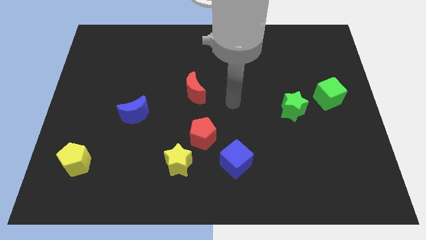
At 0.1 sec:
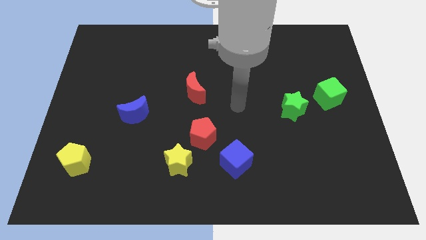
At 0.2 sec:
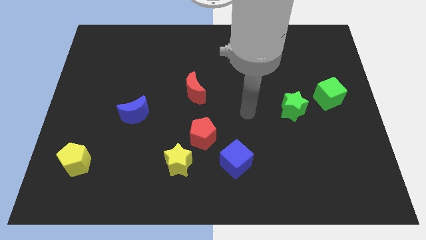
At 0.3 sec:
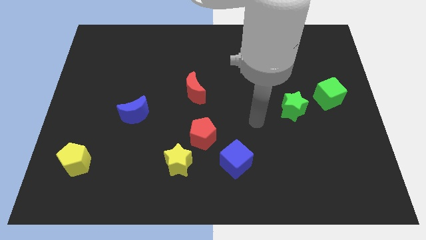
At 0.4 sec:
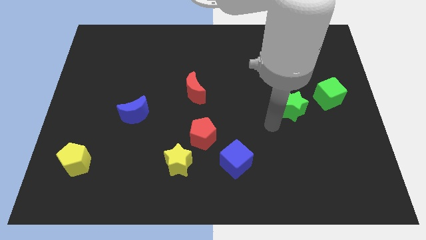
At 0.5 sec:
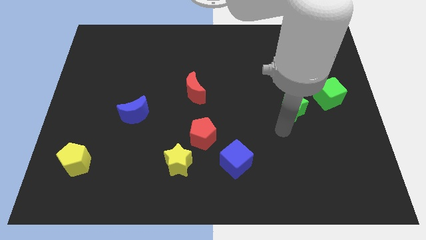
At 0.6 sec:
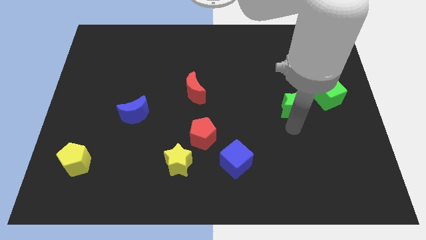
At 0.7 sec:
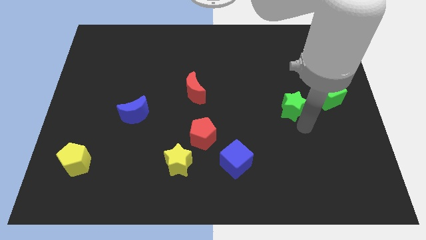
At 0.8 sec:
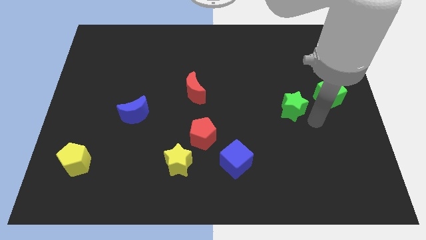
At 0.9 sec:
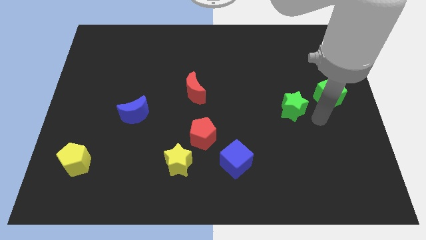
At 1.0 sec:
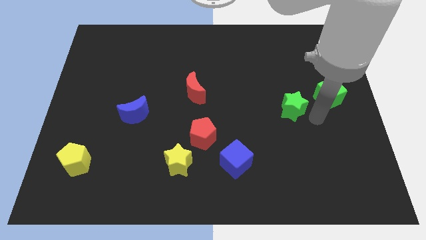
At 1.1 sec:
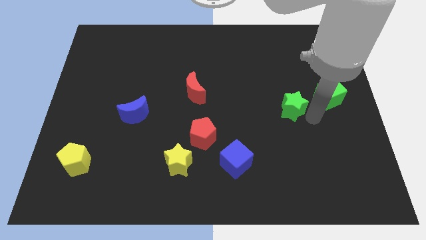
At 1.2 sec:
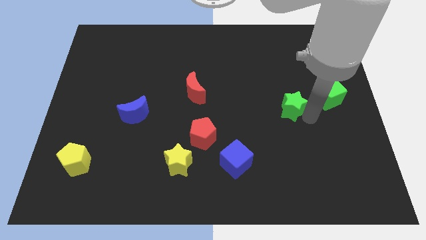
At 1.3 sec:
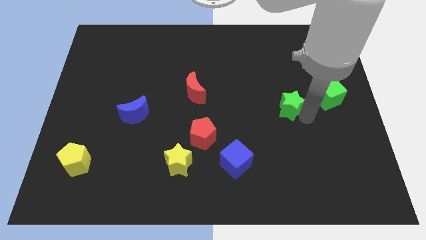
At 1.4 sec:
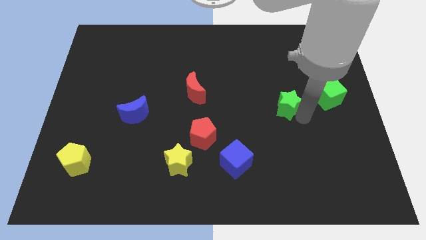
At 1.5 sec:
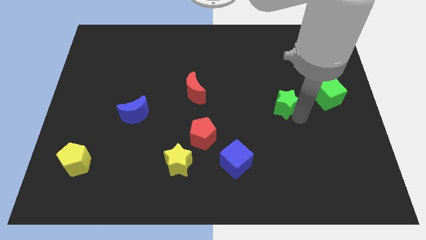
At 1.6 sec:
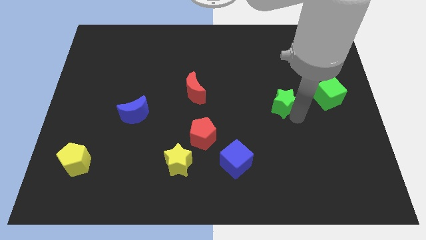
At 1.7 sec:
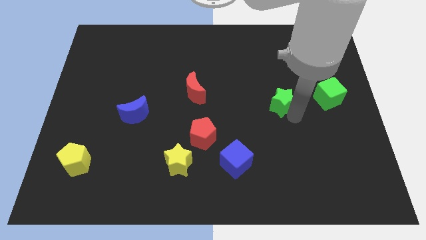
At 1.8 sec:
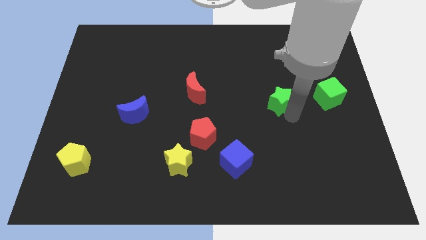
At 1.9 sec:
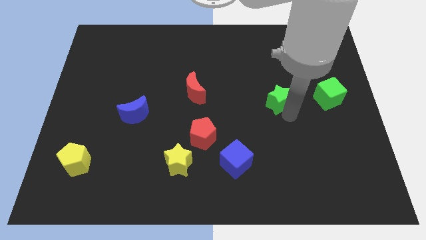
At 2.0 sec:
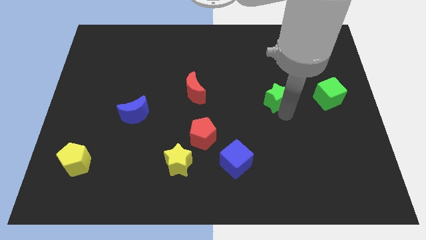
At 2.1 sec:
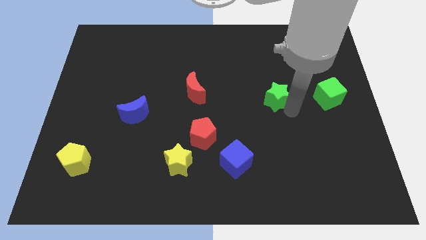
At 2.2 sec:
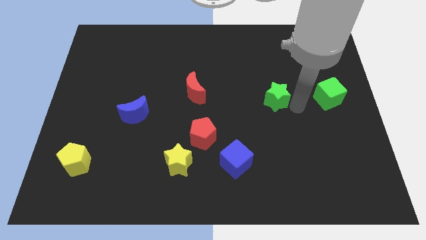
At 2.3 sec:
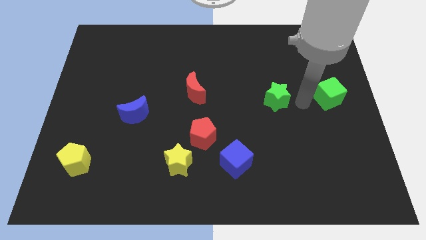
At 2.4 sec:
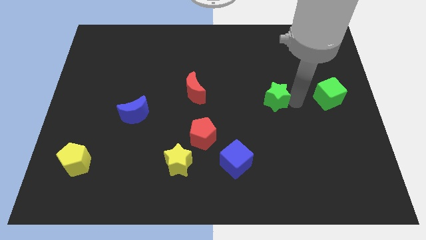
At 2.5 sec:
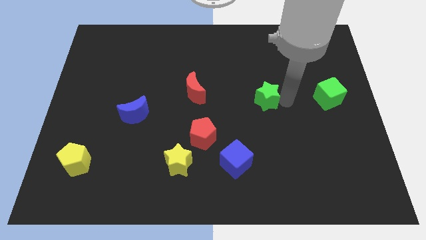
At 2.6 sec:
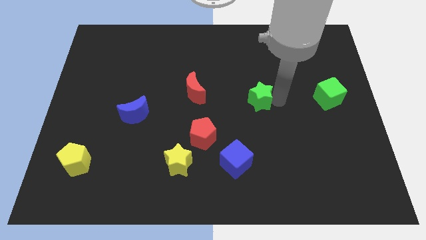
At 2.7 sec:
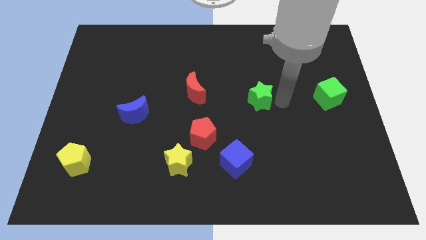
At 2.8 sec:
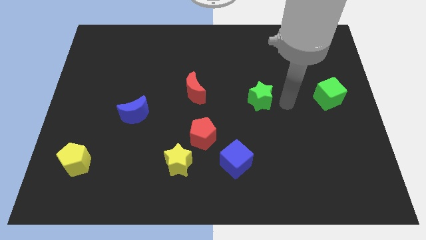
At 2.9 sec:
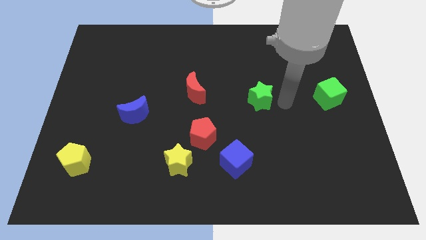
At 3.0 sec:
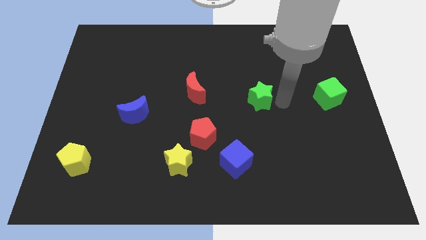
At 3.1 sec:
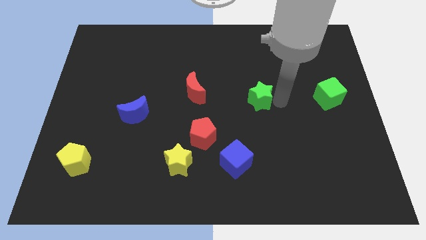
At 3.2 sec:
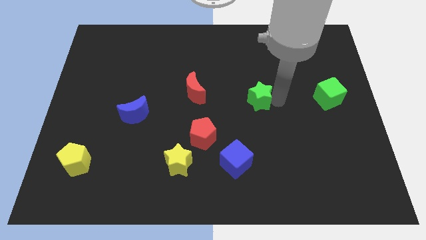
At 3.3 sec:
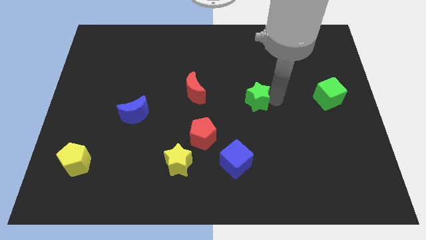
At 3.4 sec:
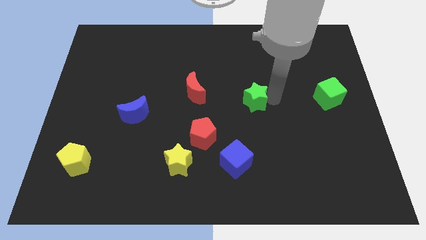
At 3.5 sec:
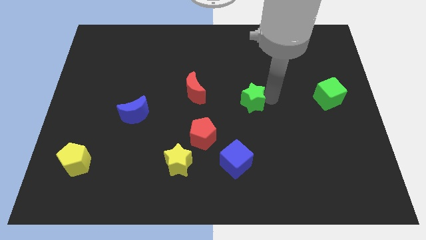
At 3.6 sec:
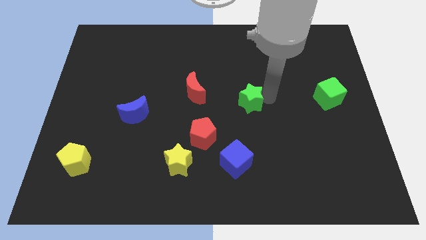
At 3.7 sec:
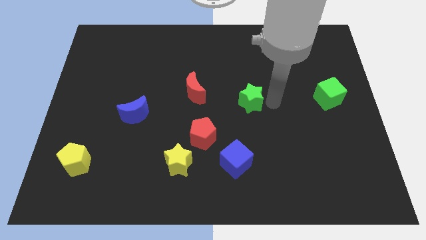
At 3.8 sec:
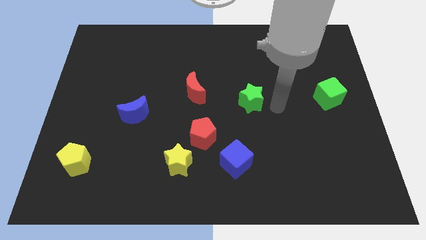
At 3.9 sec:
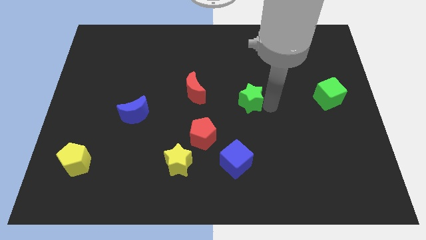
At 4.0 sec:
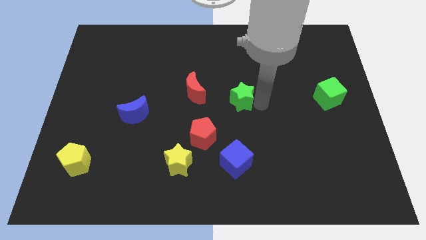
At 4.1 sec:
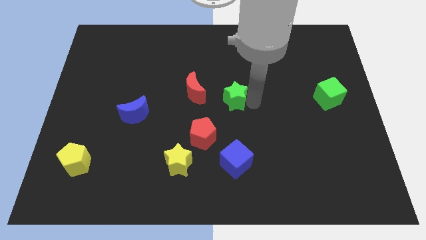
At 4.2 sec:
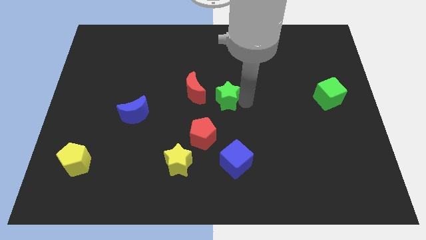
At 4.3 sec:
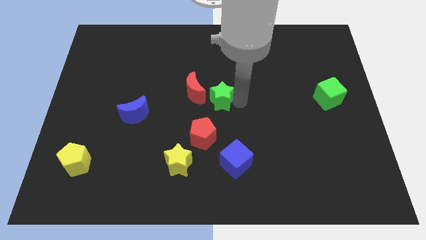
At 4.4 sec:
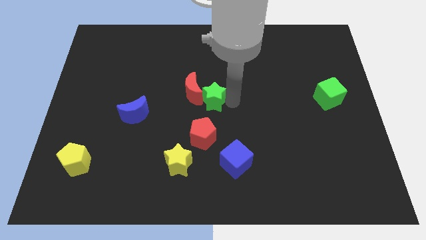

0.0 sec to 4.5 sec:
put the green star close to the red moon

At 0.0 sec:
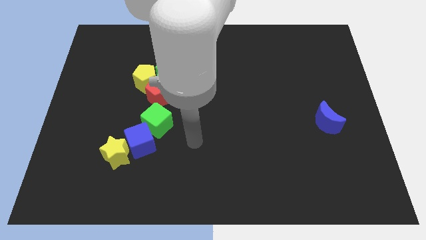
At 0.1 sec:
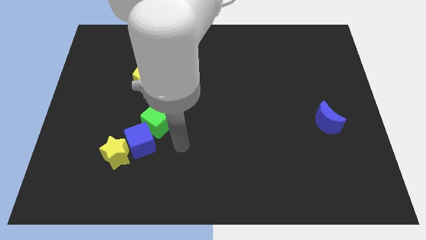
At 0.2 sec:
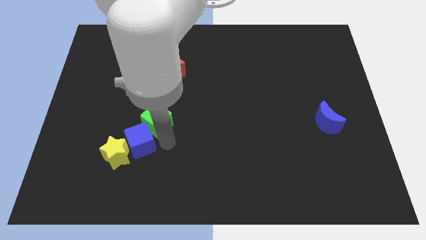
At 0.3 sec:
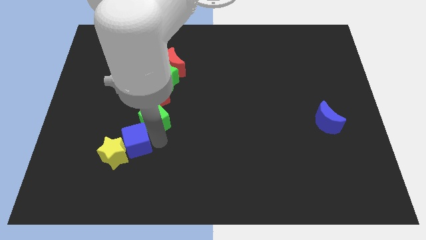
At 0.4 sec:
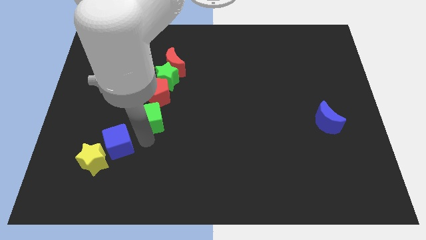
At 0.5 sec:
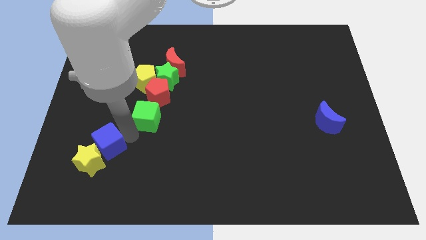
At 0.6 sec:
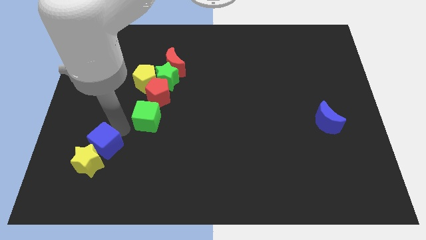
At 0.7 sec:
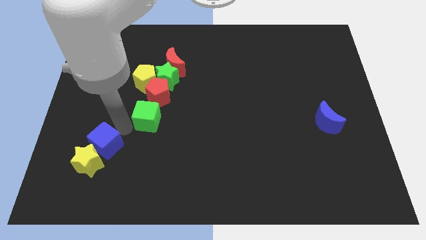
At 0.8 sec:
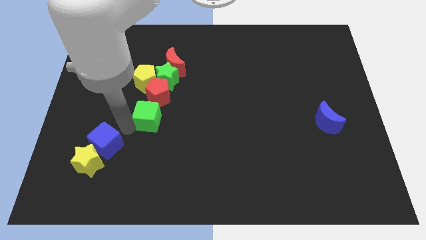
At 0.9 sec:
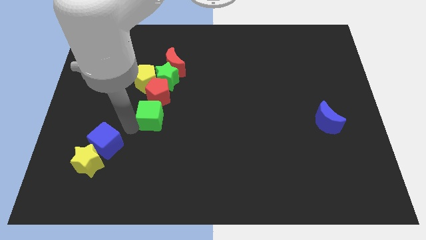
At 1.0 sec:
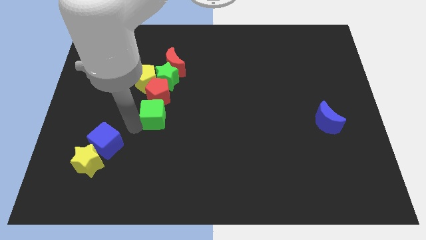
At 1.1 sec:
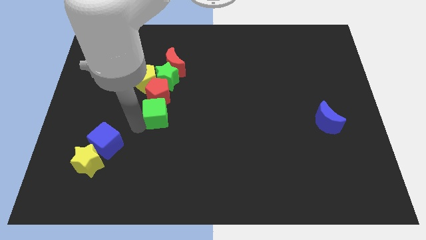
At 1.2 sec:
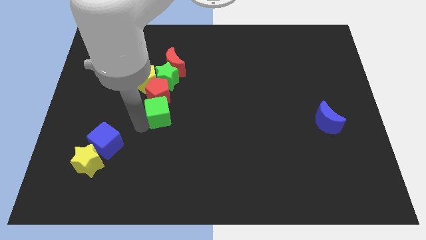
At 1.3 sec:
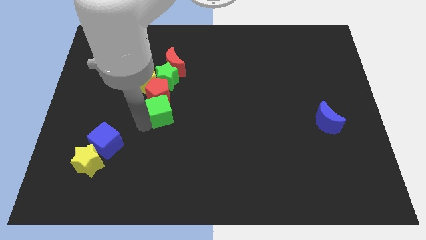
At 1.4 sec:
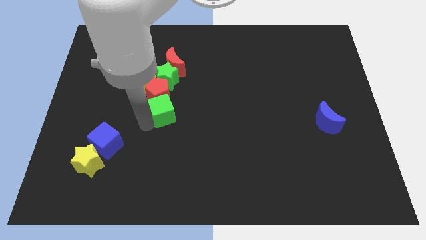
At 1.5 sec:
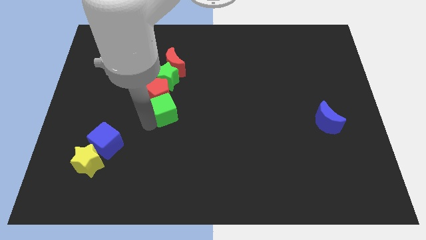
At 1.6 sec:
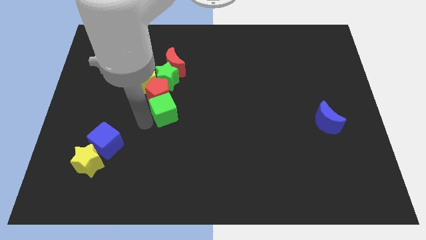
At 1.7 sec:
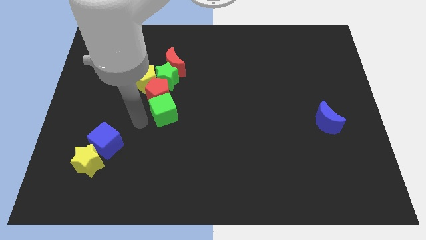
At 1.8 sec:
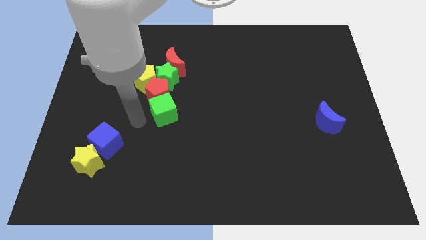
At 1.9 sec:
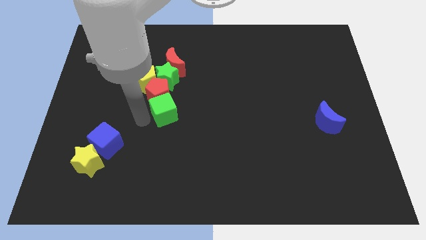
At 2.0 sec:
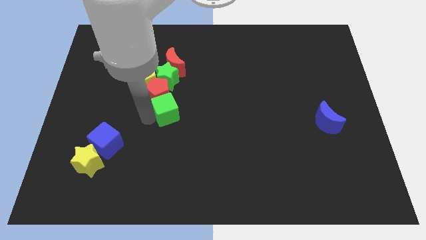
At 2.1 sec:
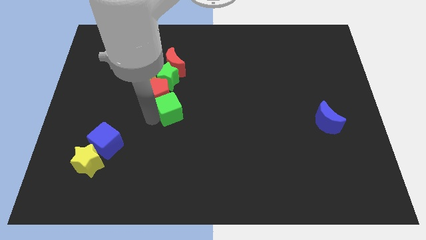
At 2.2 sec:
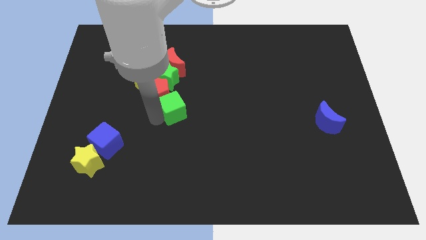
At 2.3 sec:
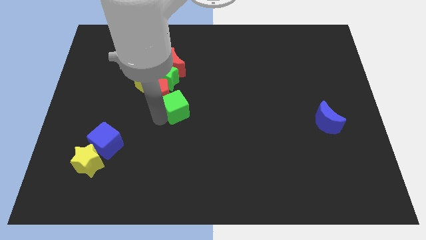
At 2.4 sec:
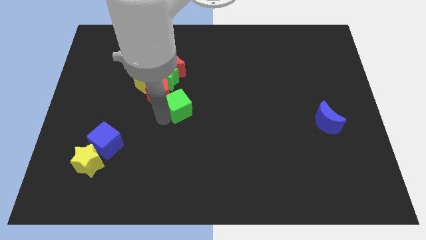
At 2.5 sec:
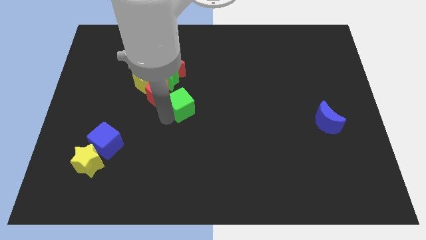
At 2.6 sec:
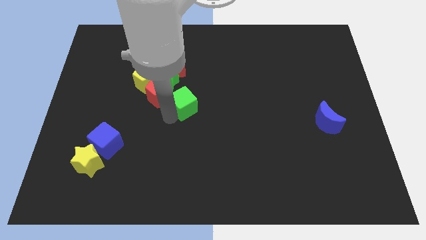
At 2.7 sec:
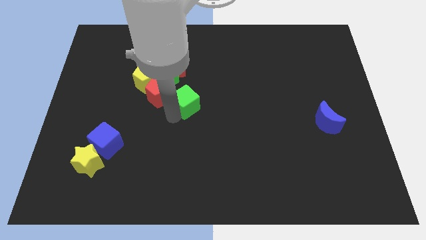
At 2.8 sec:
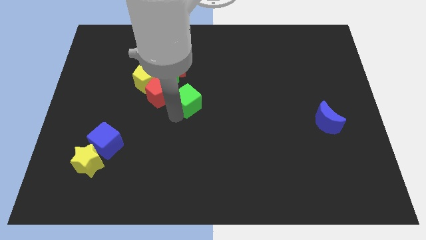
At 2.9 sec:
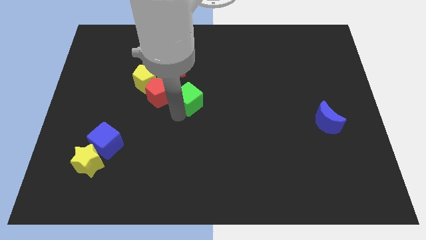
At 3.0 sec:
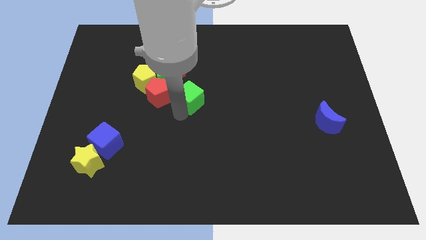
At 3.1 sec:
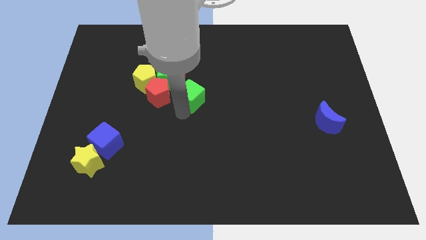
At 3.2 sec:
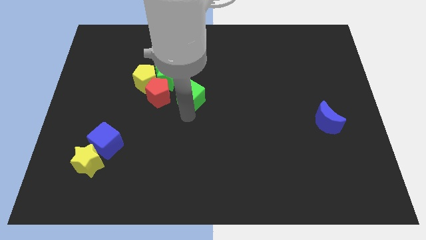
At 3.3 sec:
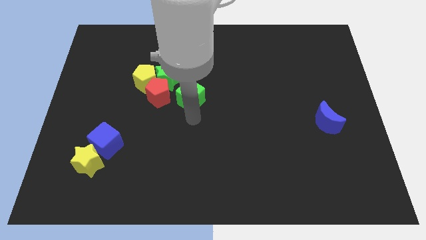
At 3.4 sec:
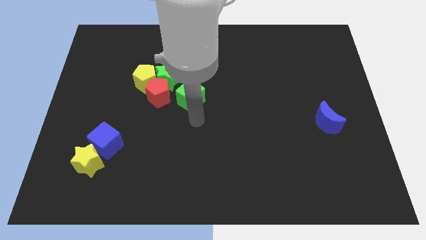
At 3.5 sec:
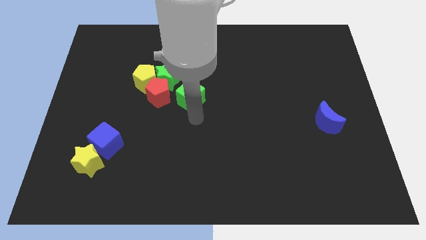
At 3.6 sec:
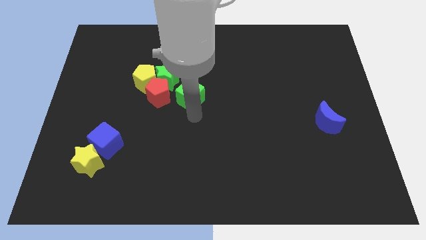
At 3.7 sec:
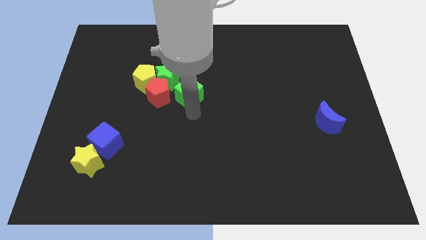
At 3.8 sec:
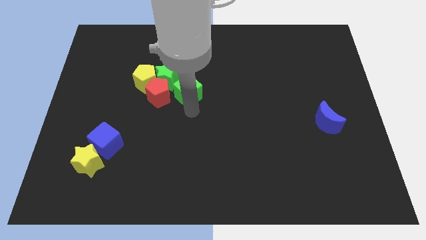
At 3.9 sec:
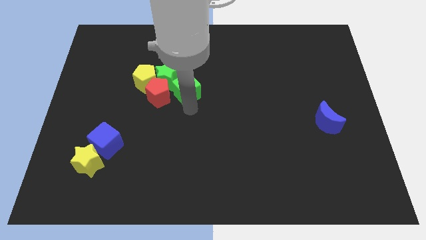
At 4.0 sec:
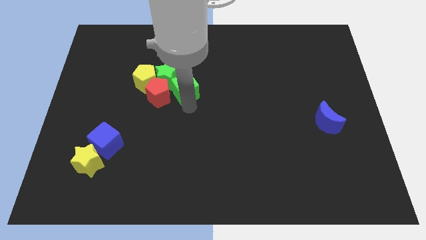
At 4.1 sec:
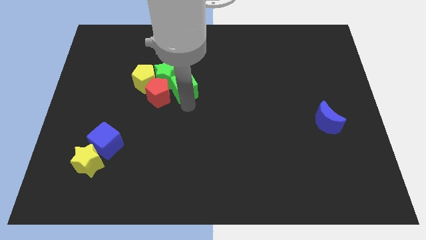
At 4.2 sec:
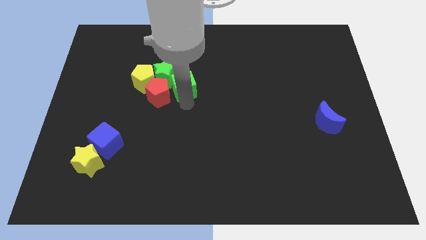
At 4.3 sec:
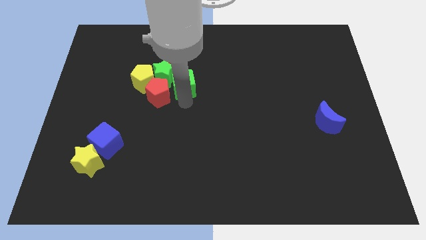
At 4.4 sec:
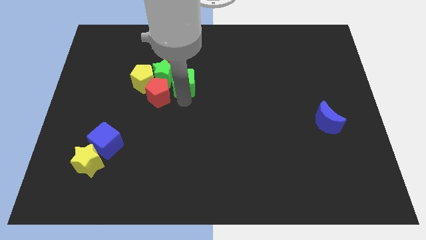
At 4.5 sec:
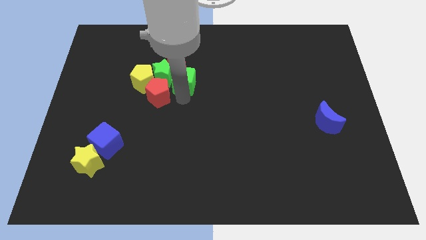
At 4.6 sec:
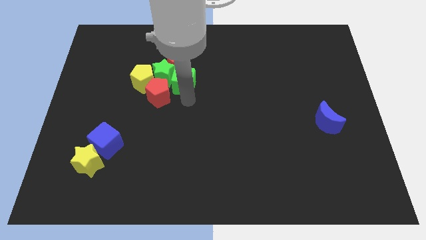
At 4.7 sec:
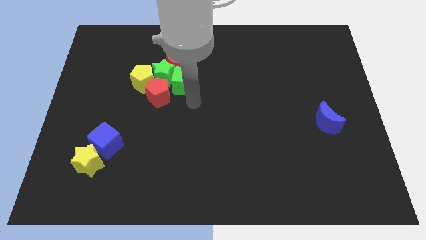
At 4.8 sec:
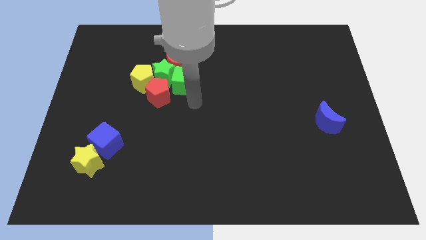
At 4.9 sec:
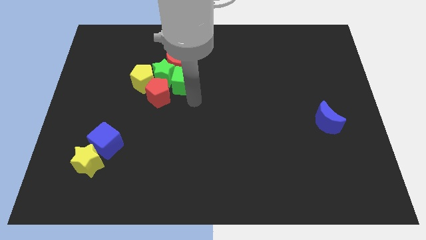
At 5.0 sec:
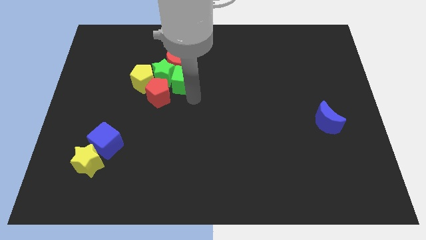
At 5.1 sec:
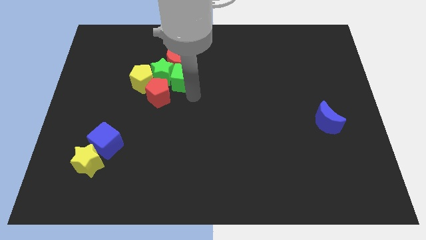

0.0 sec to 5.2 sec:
push the green cube next to the red moon
